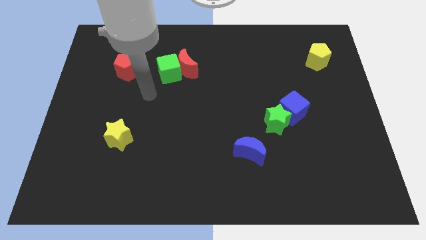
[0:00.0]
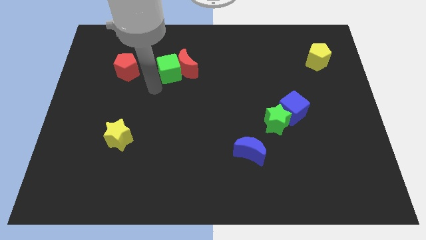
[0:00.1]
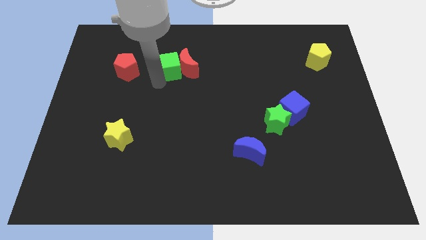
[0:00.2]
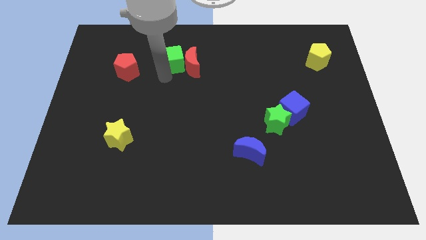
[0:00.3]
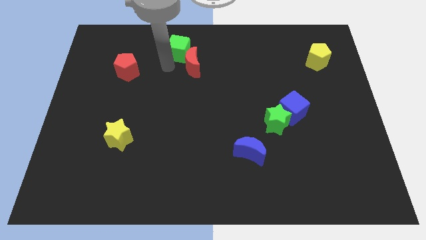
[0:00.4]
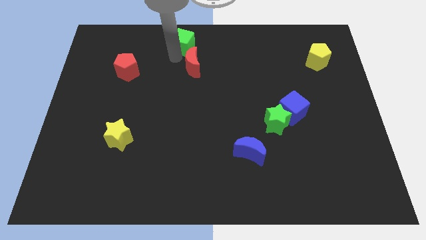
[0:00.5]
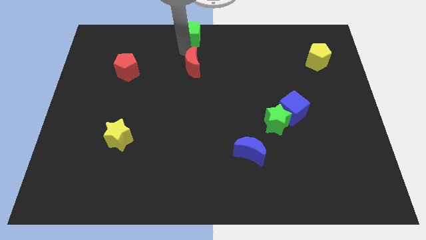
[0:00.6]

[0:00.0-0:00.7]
move the red moon away from the green cube

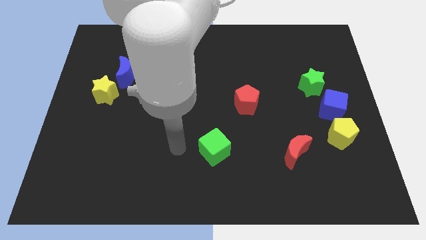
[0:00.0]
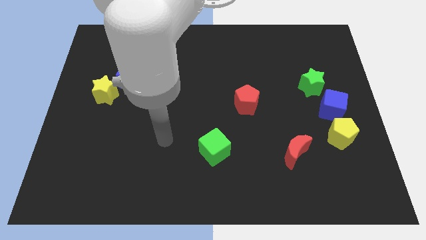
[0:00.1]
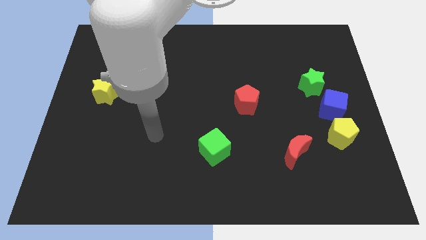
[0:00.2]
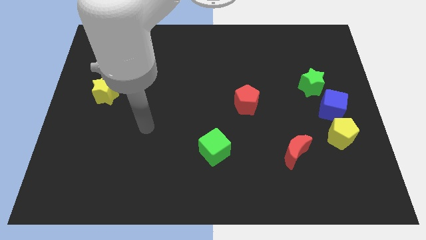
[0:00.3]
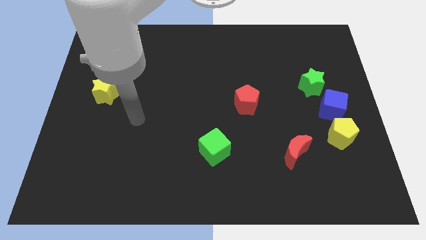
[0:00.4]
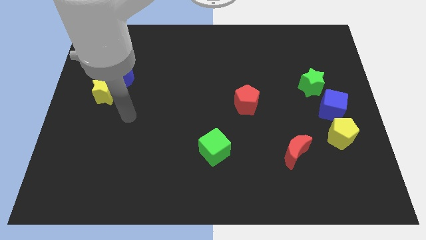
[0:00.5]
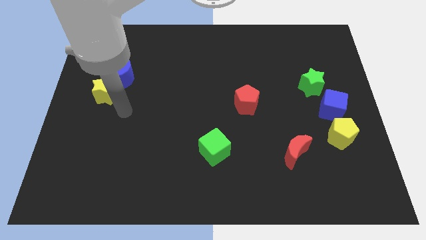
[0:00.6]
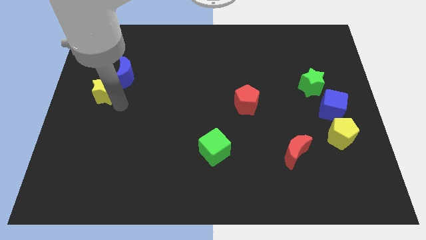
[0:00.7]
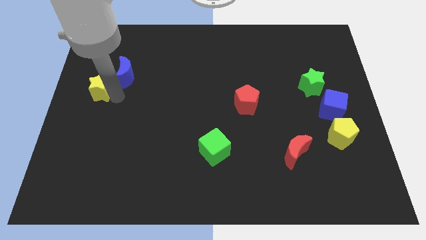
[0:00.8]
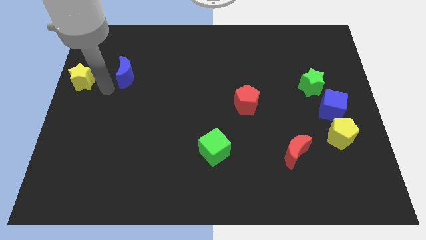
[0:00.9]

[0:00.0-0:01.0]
pull the blue moon apart from the yellow star

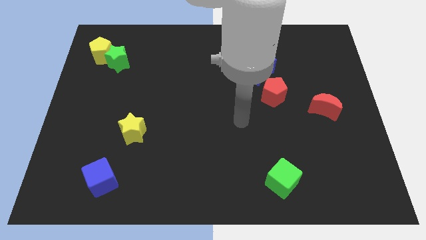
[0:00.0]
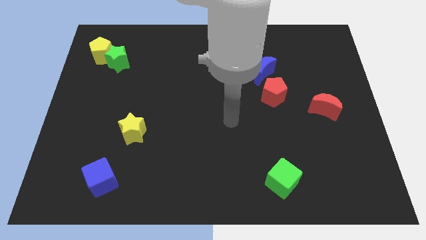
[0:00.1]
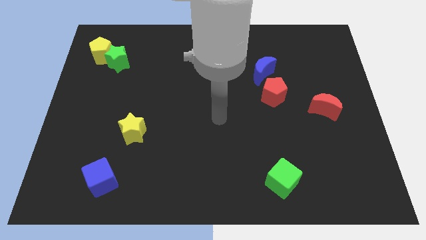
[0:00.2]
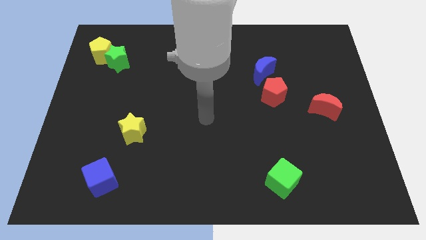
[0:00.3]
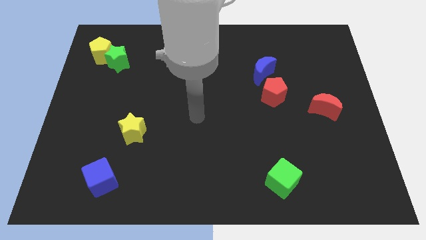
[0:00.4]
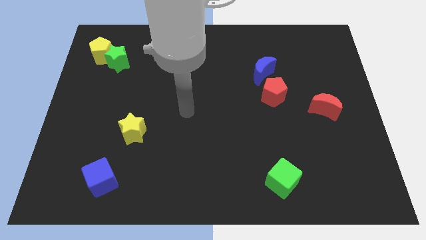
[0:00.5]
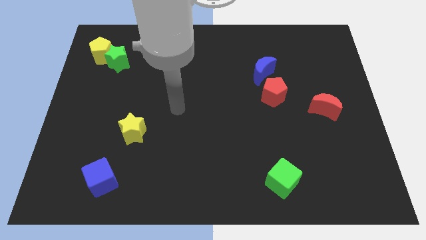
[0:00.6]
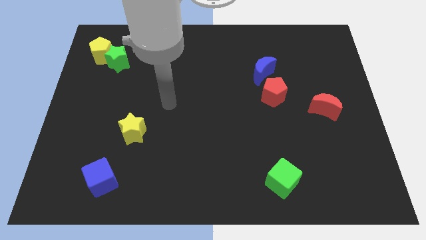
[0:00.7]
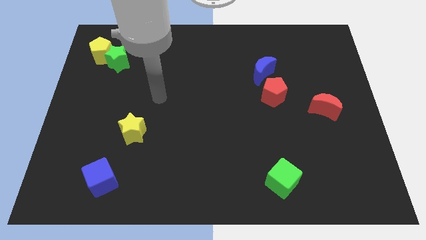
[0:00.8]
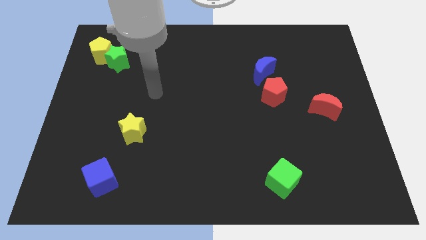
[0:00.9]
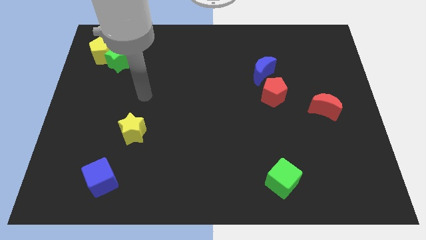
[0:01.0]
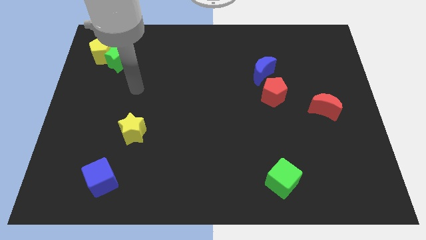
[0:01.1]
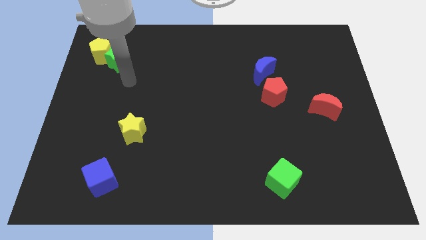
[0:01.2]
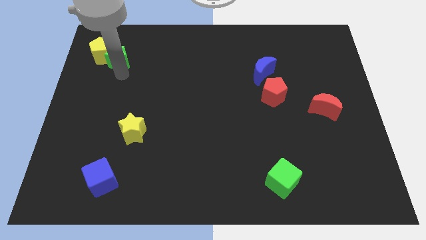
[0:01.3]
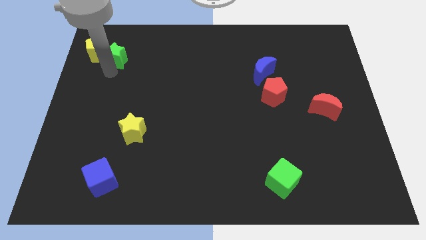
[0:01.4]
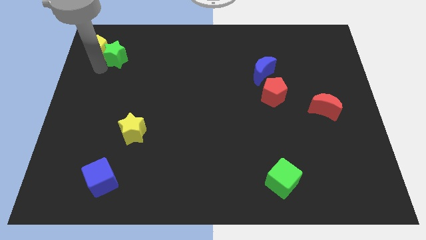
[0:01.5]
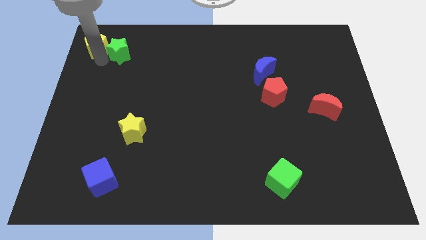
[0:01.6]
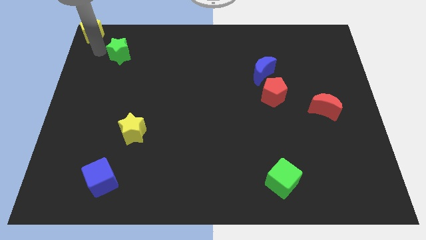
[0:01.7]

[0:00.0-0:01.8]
move the green star away from the yellow pentagon

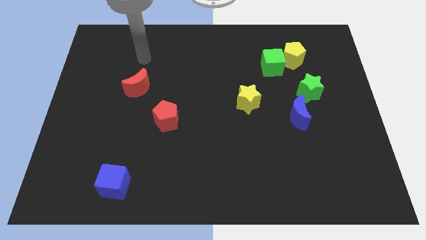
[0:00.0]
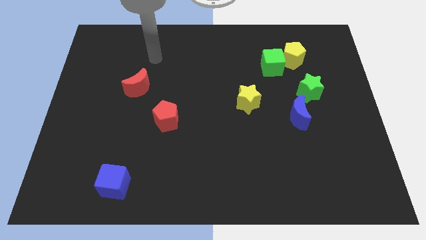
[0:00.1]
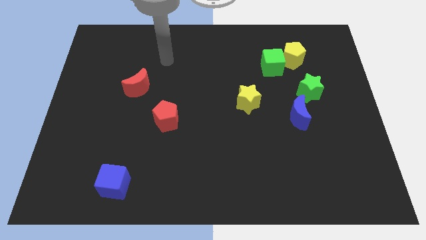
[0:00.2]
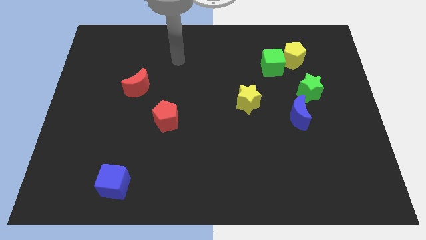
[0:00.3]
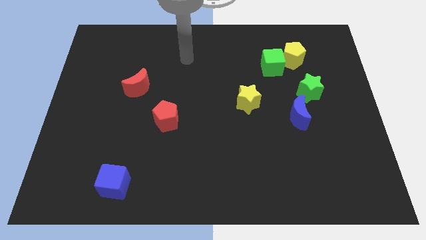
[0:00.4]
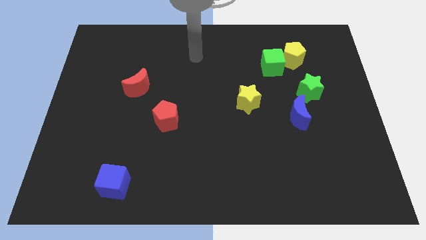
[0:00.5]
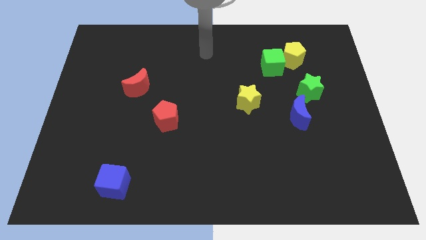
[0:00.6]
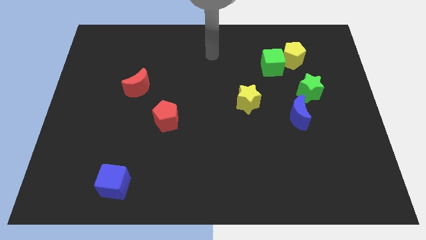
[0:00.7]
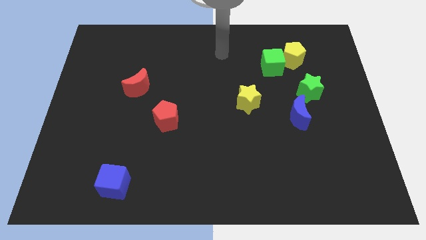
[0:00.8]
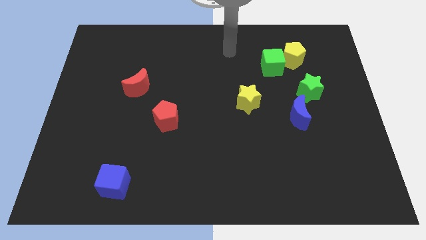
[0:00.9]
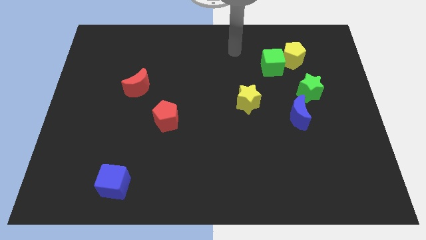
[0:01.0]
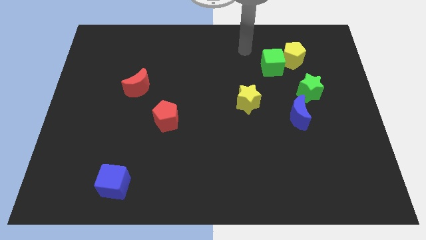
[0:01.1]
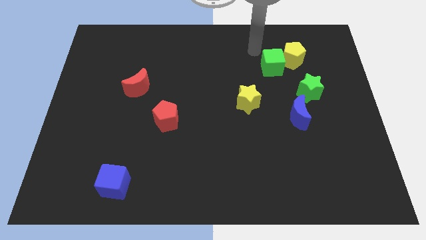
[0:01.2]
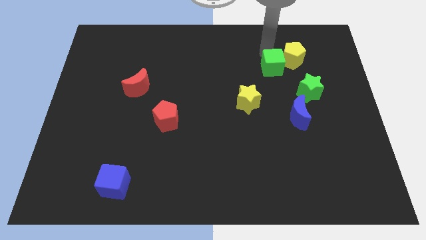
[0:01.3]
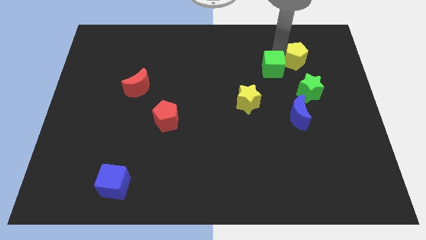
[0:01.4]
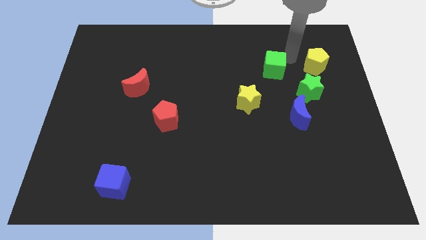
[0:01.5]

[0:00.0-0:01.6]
move the green cube away from the yellow pentagon

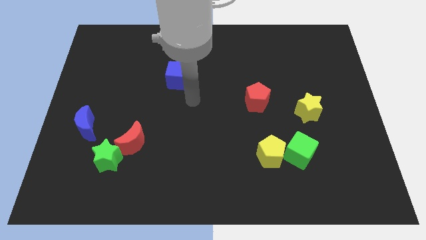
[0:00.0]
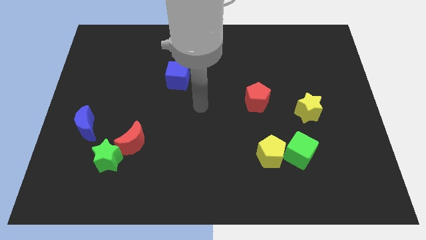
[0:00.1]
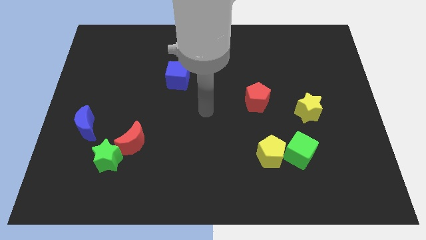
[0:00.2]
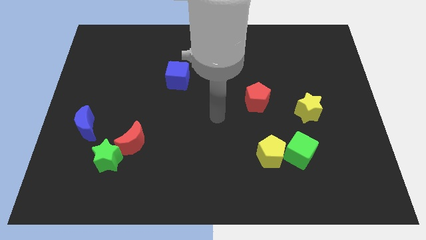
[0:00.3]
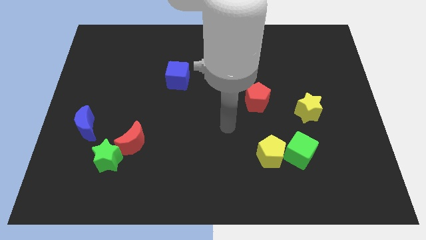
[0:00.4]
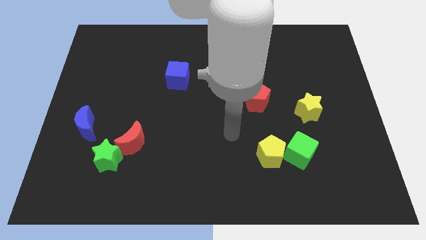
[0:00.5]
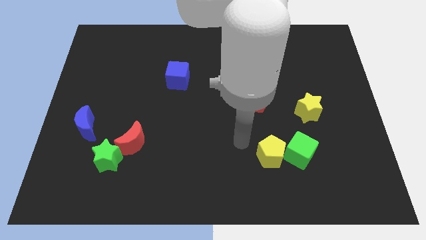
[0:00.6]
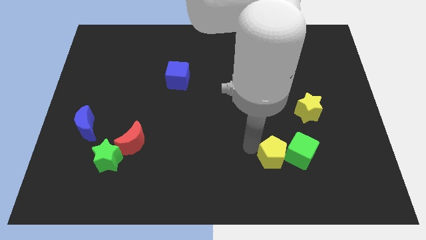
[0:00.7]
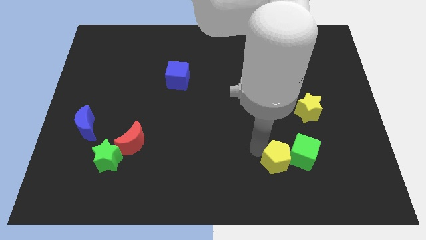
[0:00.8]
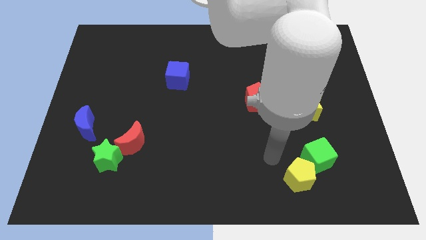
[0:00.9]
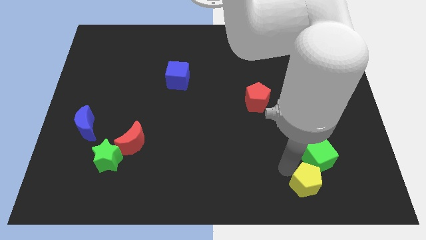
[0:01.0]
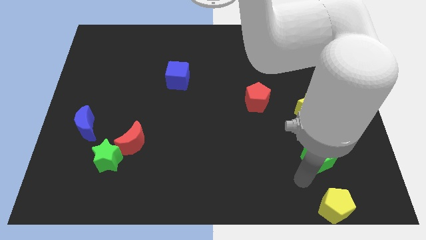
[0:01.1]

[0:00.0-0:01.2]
separate the green cube from the yellow pentagon

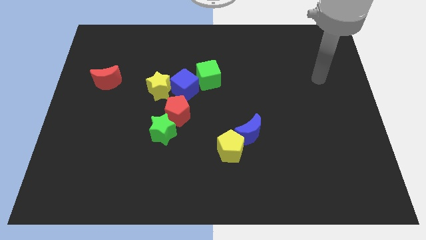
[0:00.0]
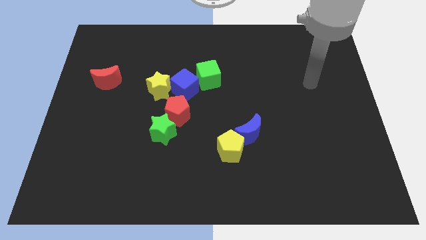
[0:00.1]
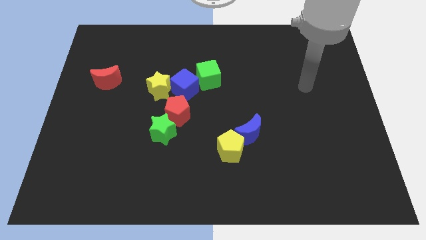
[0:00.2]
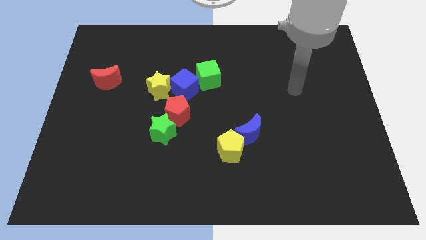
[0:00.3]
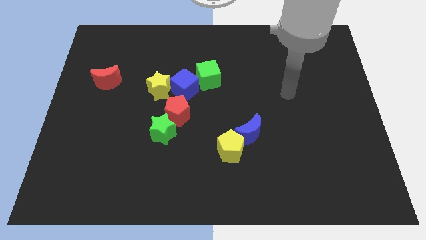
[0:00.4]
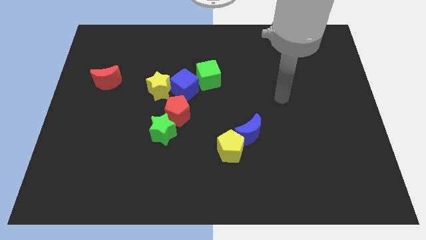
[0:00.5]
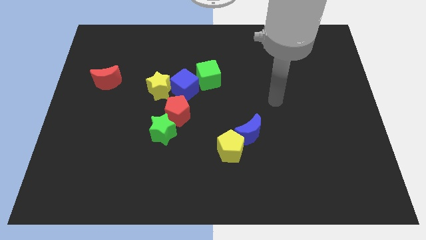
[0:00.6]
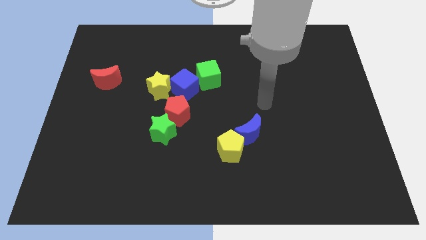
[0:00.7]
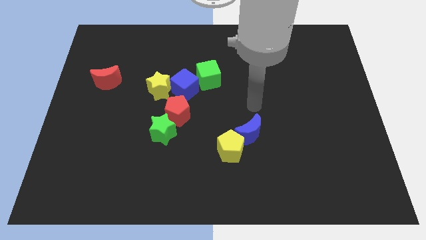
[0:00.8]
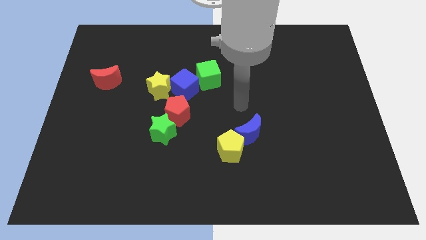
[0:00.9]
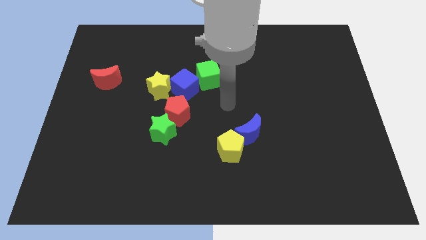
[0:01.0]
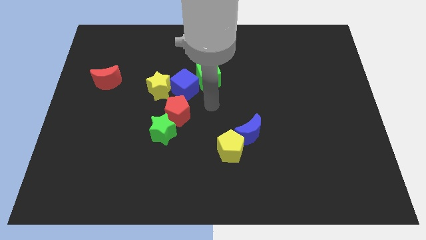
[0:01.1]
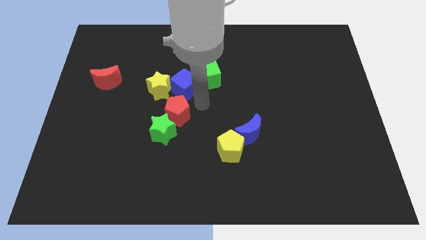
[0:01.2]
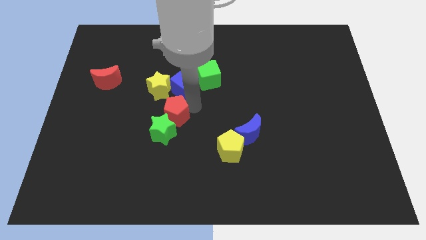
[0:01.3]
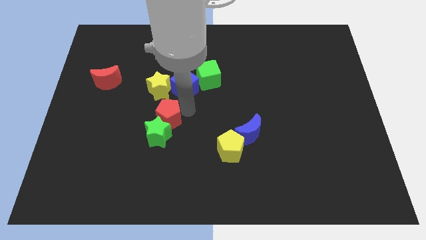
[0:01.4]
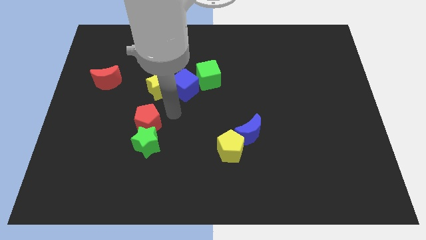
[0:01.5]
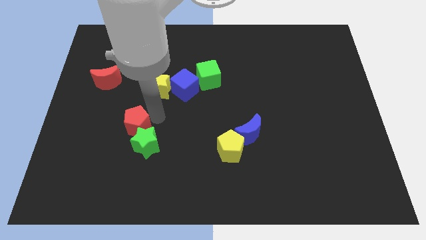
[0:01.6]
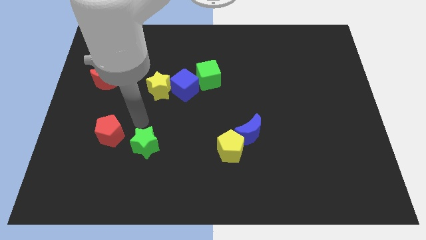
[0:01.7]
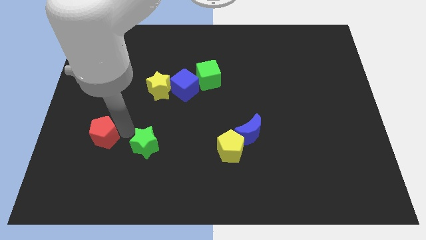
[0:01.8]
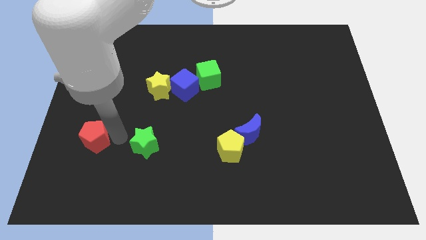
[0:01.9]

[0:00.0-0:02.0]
separate the green star from the red pentagon

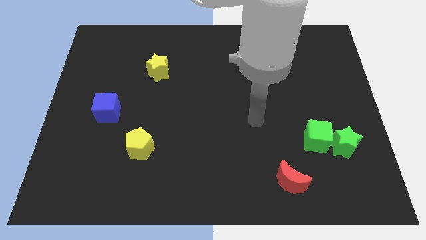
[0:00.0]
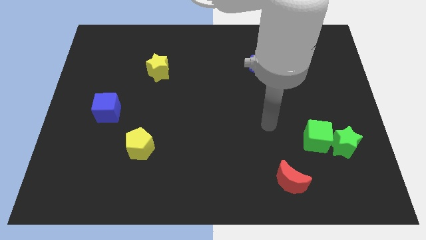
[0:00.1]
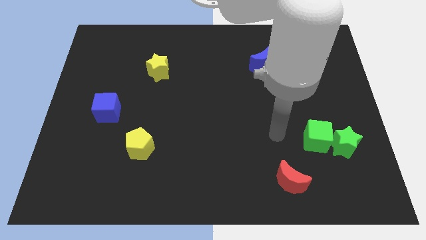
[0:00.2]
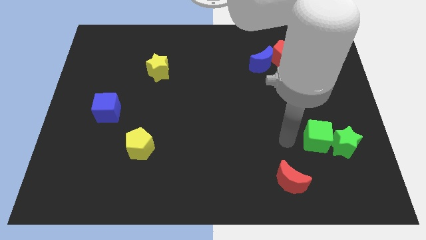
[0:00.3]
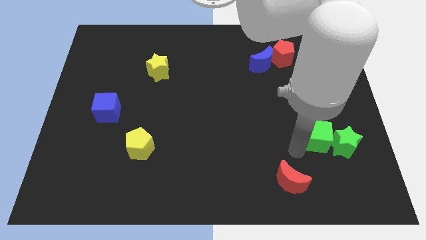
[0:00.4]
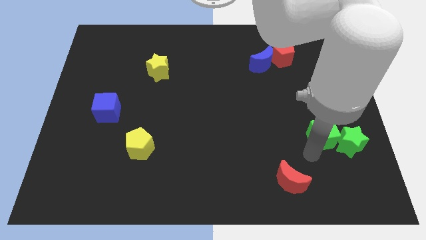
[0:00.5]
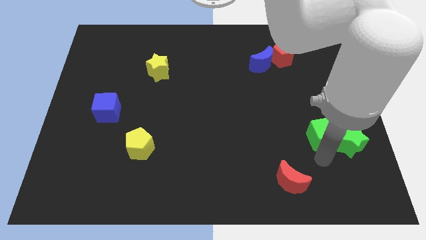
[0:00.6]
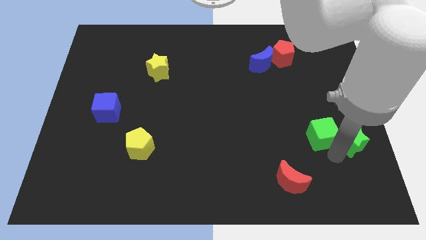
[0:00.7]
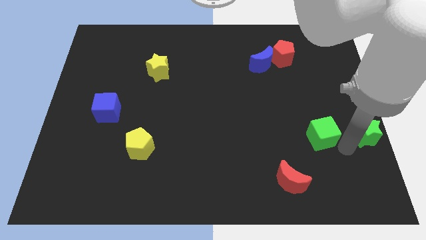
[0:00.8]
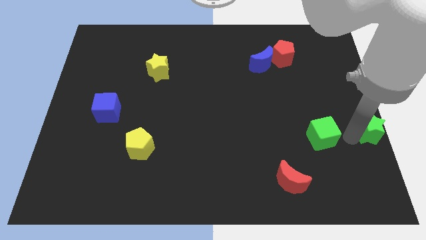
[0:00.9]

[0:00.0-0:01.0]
separate the green cube from the green star
